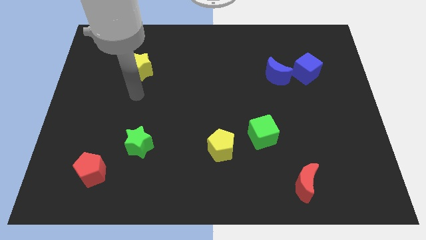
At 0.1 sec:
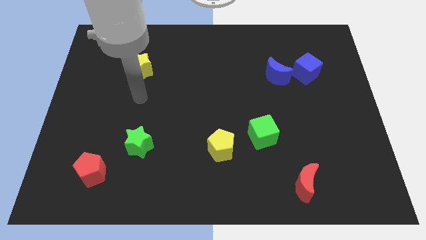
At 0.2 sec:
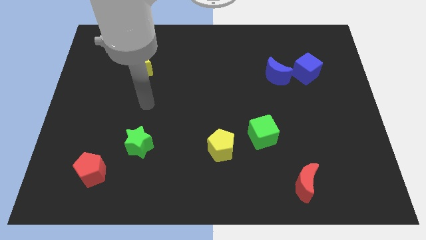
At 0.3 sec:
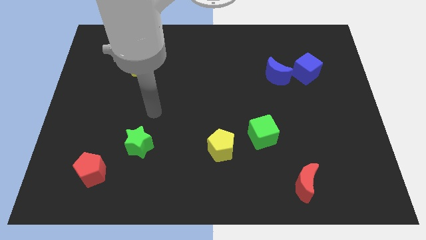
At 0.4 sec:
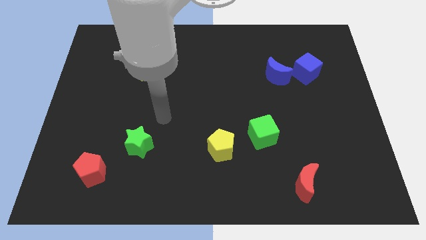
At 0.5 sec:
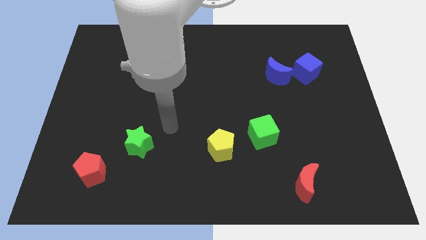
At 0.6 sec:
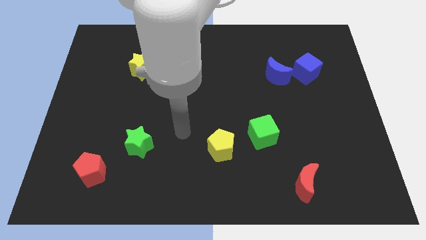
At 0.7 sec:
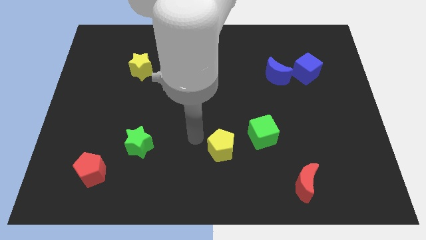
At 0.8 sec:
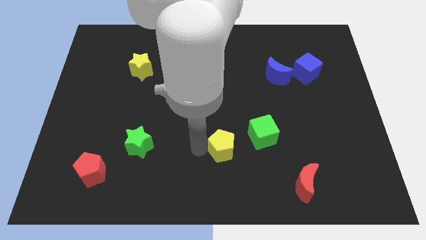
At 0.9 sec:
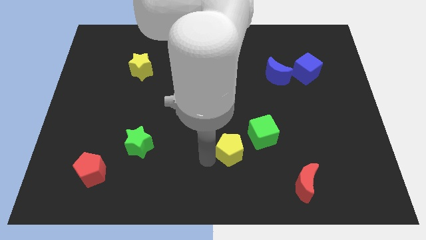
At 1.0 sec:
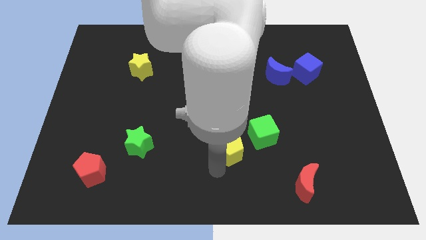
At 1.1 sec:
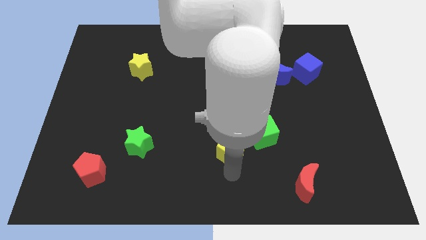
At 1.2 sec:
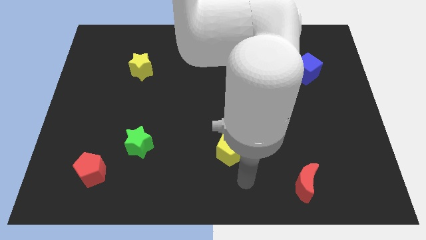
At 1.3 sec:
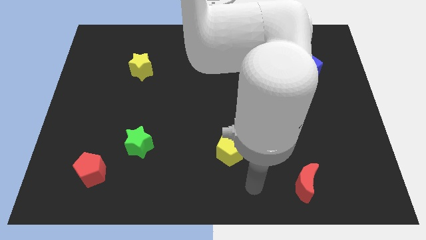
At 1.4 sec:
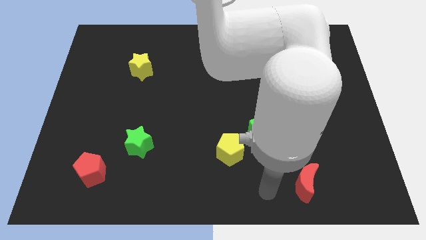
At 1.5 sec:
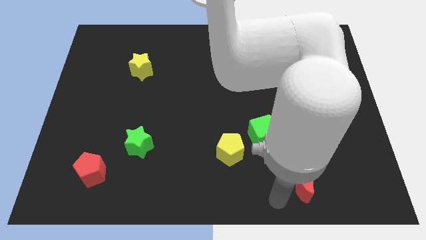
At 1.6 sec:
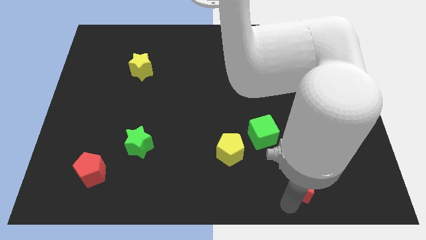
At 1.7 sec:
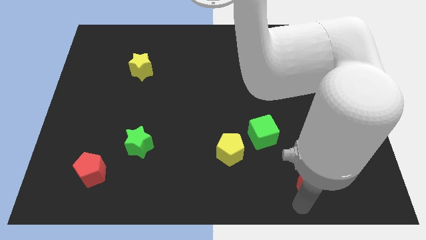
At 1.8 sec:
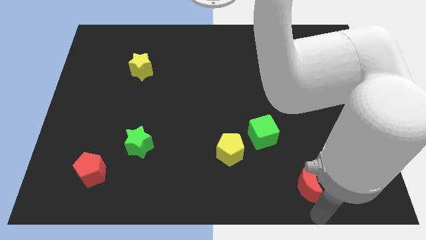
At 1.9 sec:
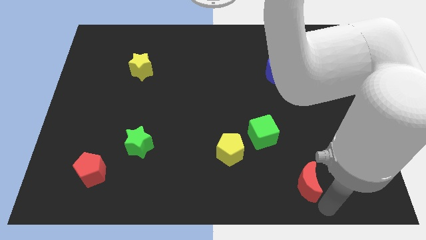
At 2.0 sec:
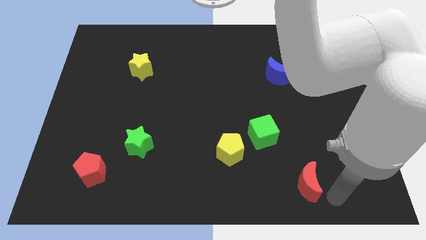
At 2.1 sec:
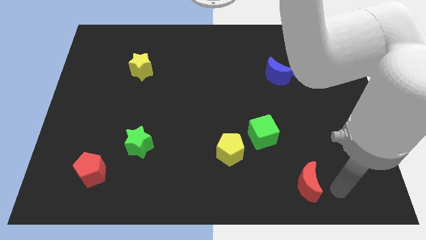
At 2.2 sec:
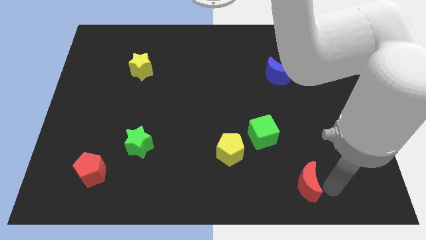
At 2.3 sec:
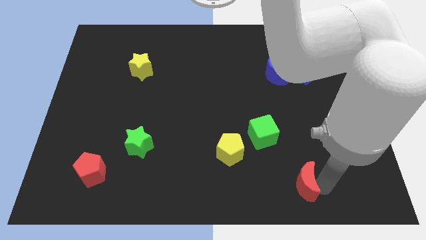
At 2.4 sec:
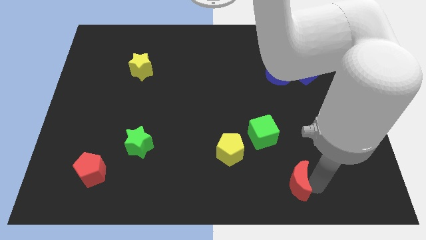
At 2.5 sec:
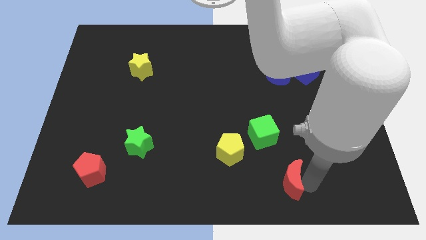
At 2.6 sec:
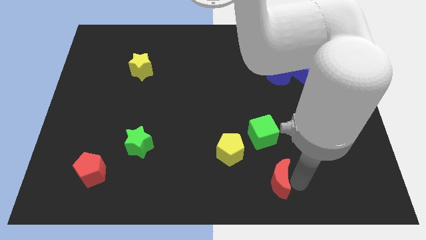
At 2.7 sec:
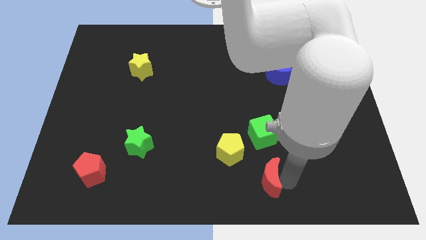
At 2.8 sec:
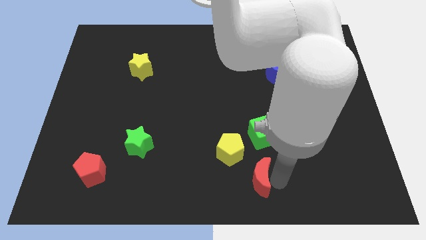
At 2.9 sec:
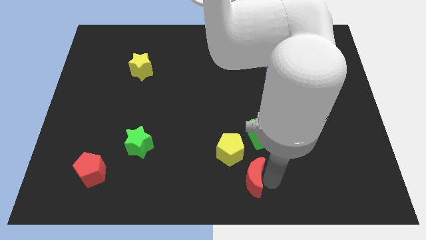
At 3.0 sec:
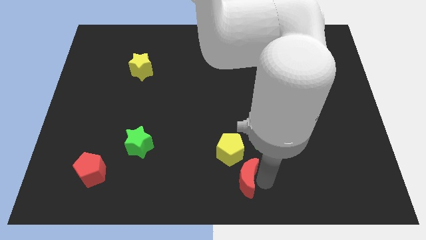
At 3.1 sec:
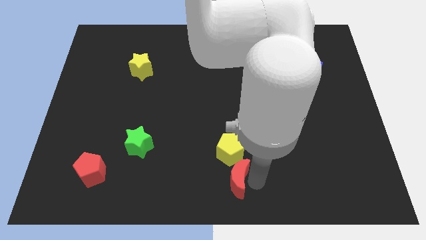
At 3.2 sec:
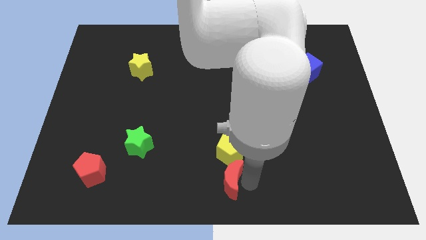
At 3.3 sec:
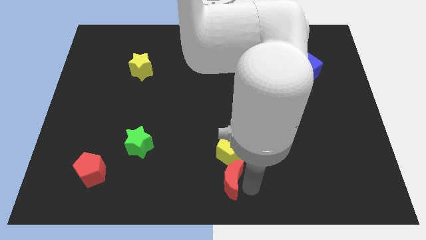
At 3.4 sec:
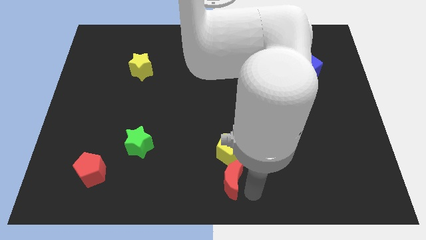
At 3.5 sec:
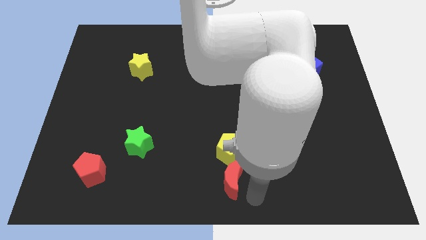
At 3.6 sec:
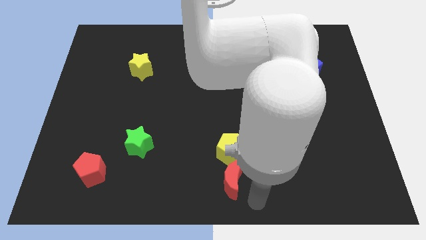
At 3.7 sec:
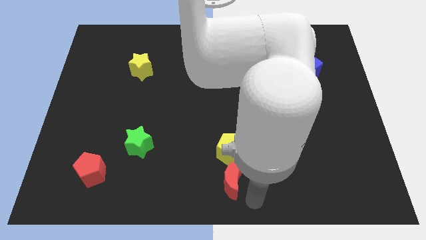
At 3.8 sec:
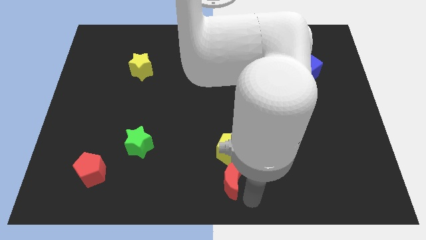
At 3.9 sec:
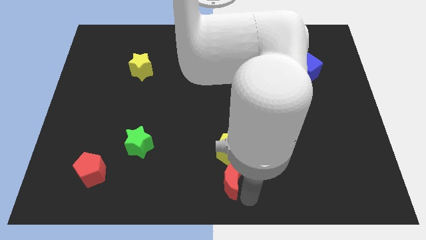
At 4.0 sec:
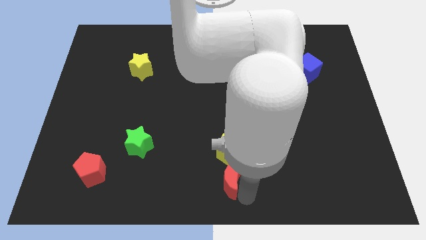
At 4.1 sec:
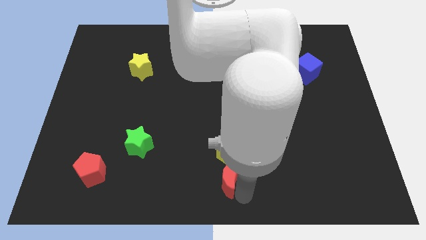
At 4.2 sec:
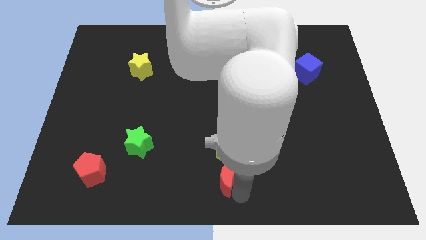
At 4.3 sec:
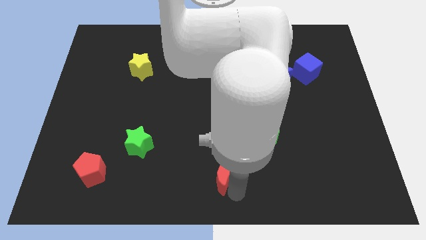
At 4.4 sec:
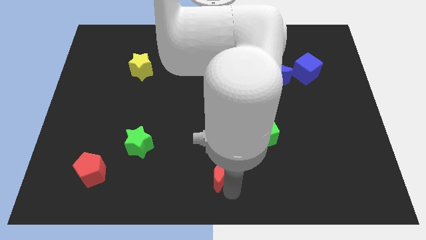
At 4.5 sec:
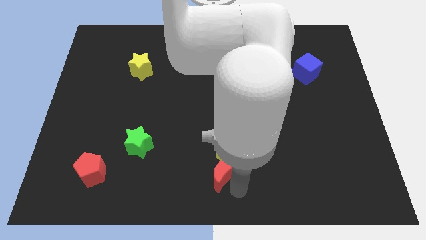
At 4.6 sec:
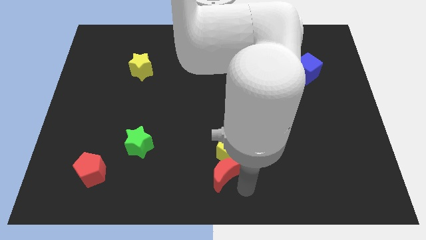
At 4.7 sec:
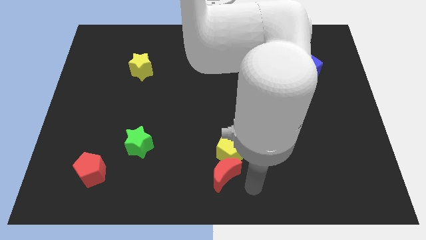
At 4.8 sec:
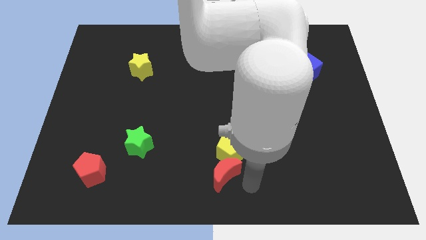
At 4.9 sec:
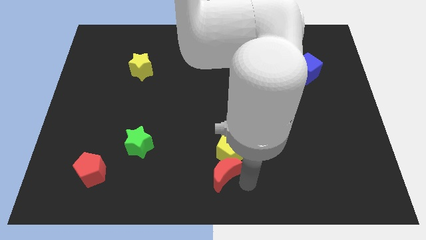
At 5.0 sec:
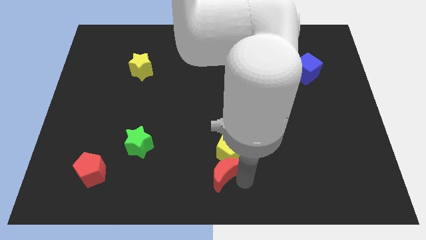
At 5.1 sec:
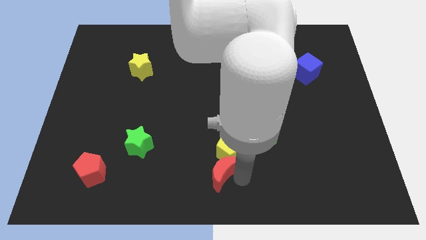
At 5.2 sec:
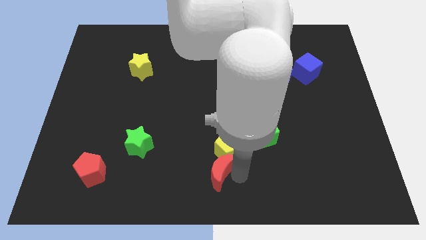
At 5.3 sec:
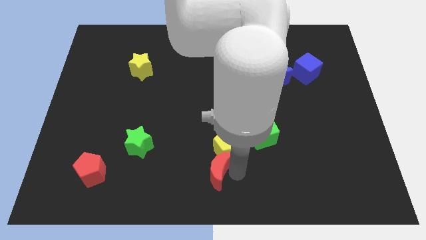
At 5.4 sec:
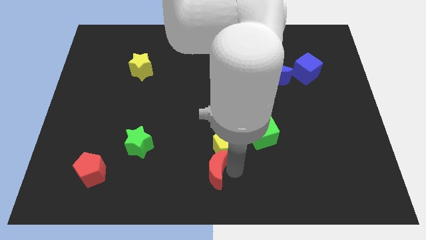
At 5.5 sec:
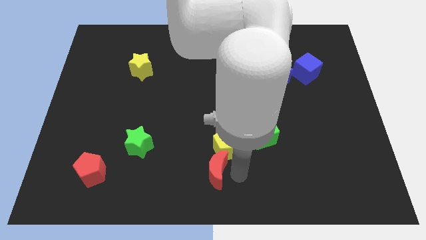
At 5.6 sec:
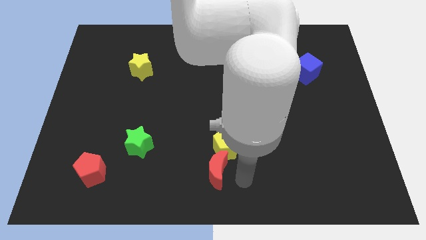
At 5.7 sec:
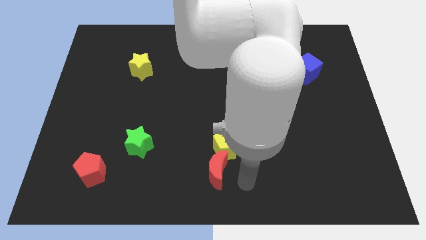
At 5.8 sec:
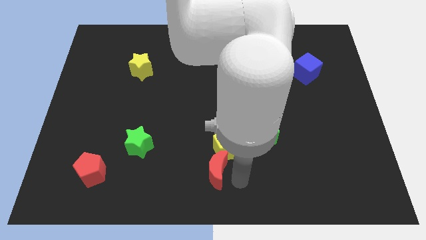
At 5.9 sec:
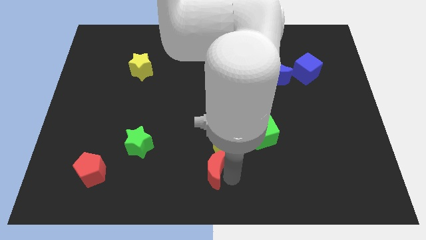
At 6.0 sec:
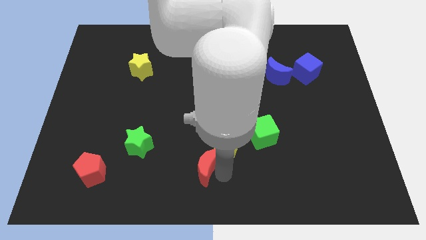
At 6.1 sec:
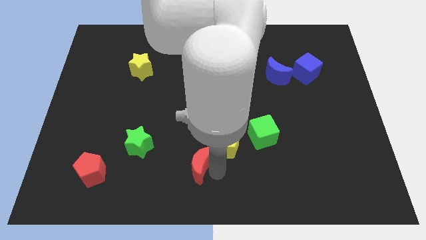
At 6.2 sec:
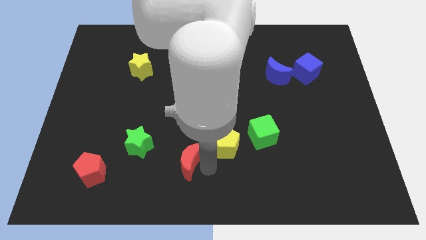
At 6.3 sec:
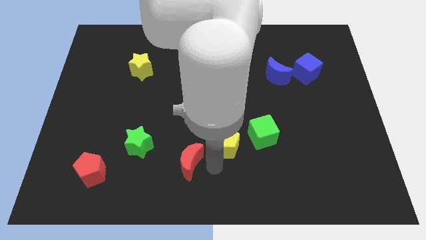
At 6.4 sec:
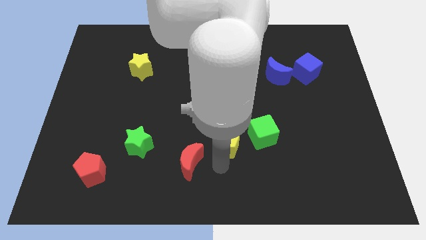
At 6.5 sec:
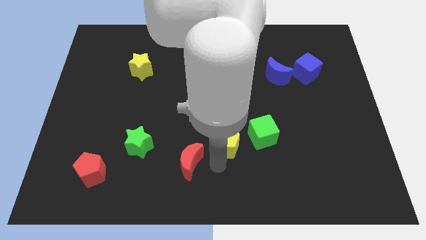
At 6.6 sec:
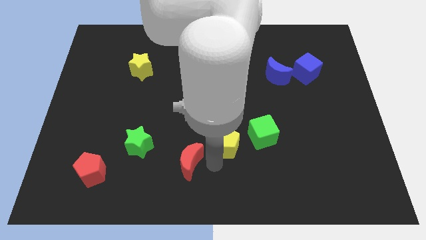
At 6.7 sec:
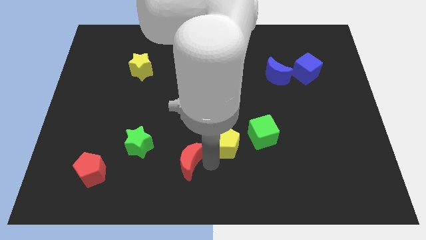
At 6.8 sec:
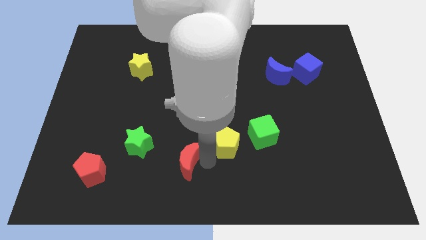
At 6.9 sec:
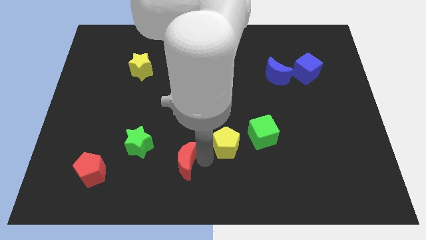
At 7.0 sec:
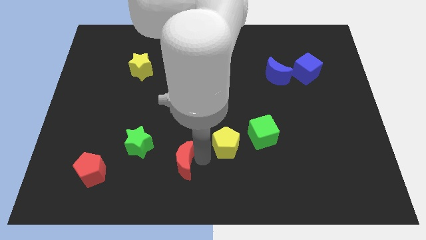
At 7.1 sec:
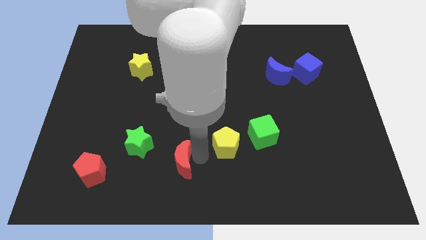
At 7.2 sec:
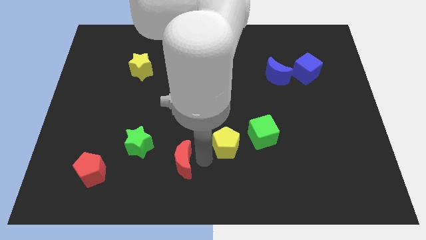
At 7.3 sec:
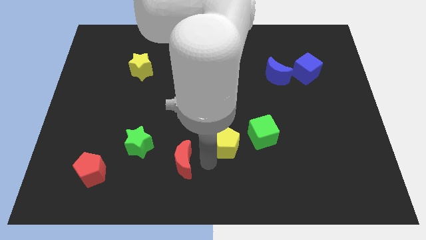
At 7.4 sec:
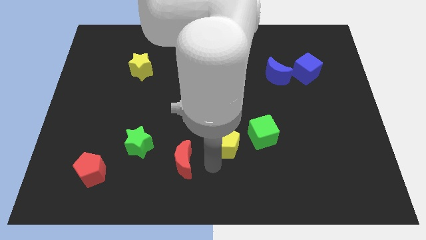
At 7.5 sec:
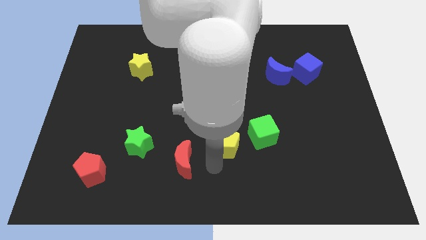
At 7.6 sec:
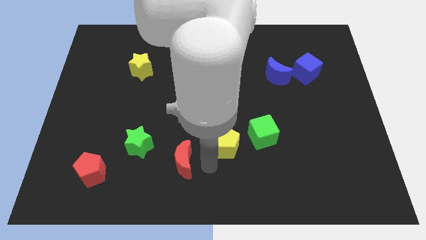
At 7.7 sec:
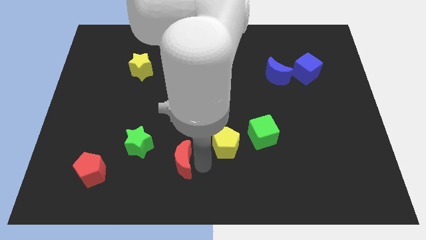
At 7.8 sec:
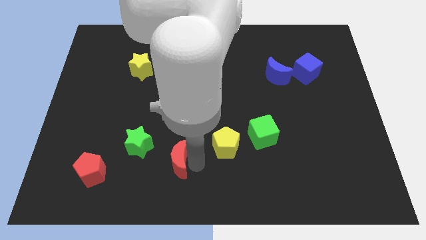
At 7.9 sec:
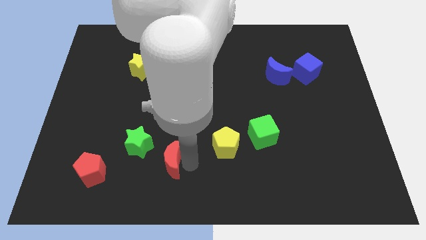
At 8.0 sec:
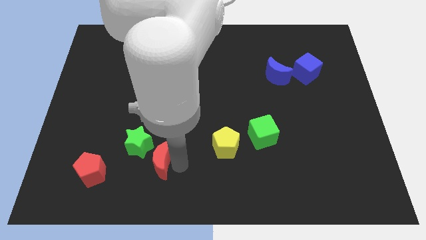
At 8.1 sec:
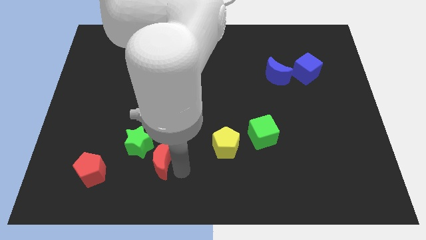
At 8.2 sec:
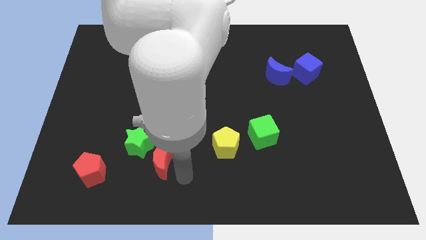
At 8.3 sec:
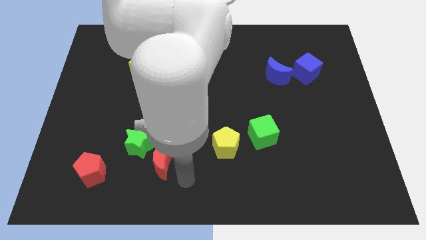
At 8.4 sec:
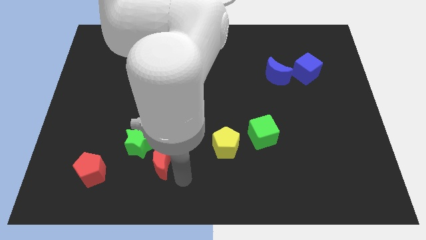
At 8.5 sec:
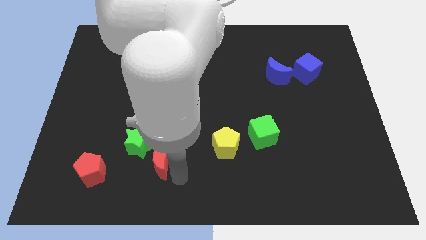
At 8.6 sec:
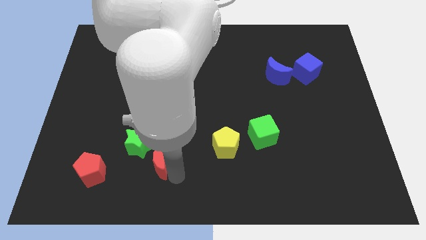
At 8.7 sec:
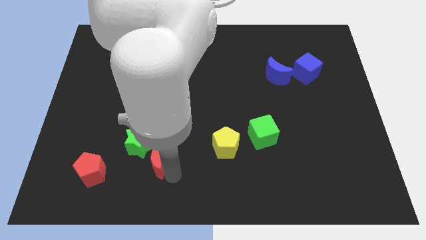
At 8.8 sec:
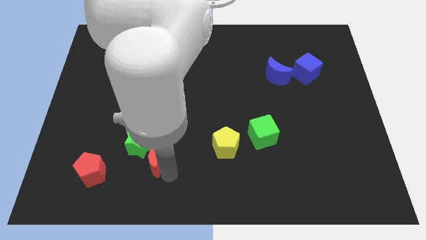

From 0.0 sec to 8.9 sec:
put the red moon to the green star
